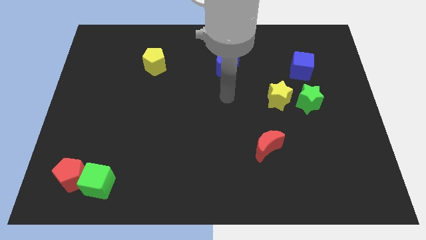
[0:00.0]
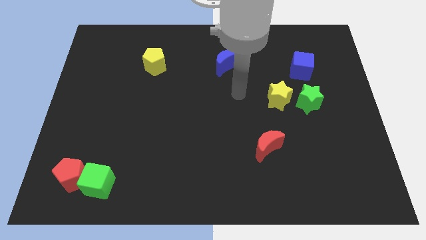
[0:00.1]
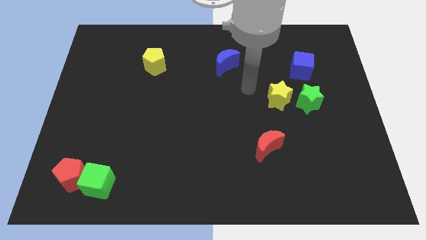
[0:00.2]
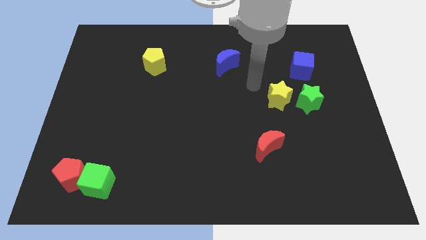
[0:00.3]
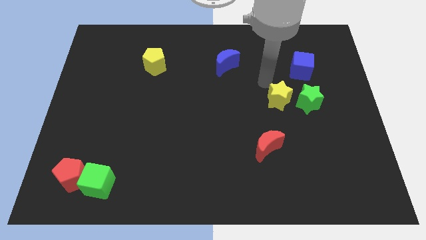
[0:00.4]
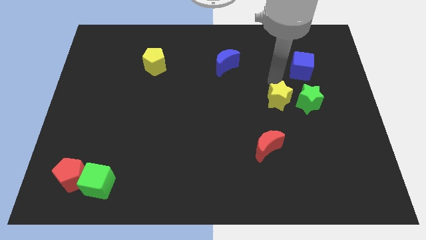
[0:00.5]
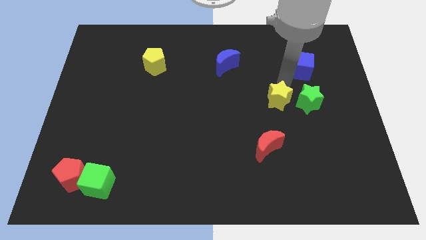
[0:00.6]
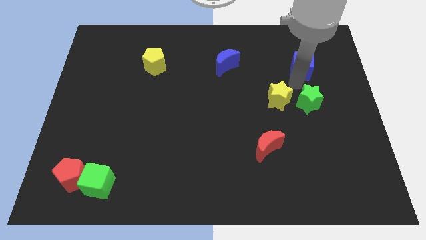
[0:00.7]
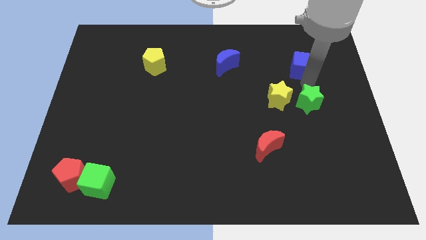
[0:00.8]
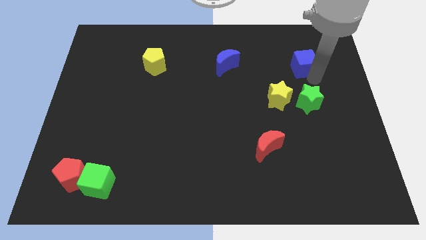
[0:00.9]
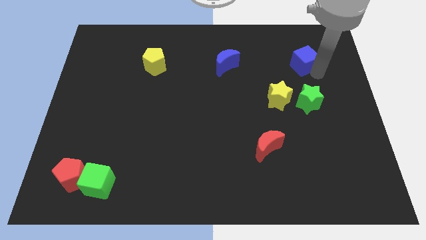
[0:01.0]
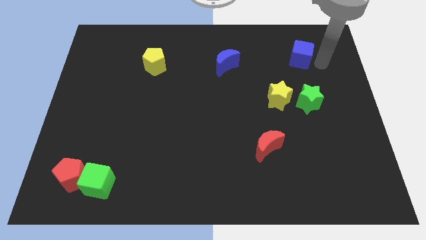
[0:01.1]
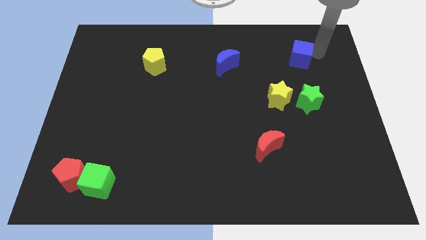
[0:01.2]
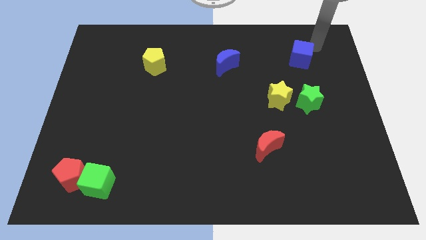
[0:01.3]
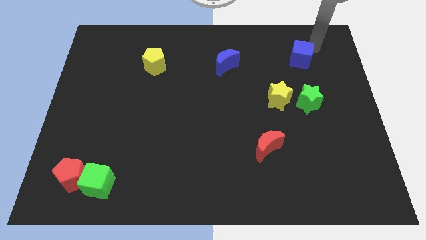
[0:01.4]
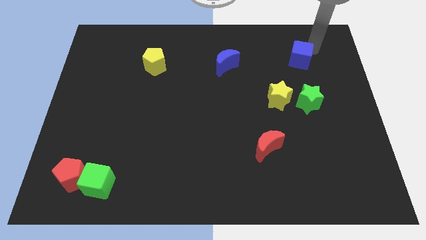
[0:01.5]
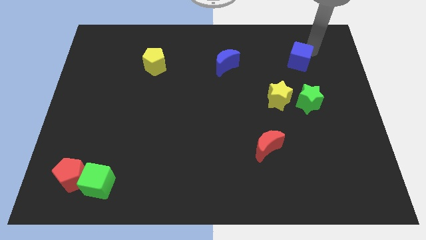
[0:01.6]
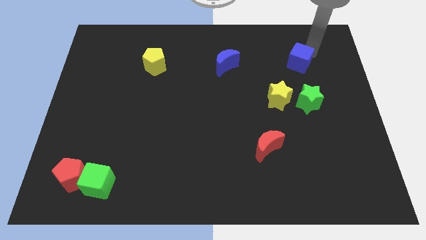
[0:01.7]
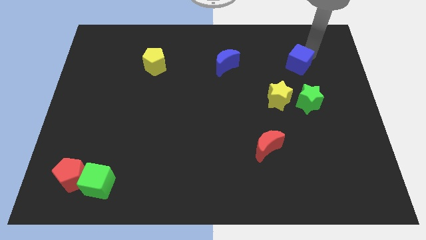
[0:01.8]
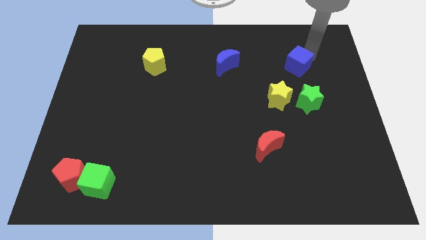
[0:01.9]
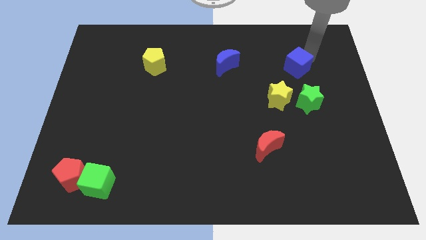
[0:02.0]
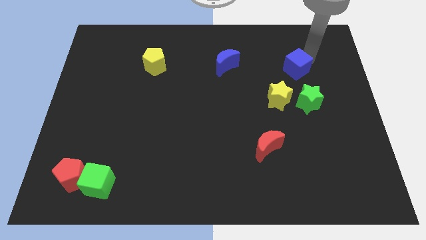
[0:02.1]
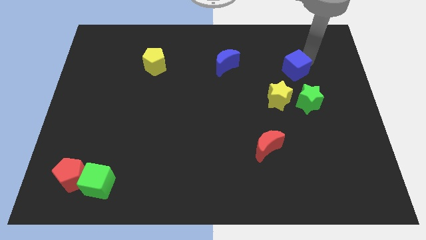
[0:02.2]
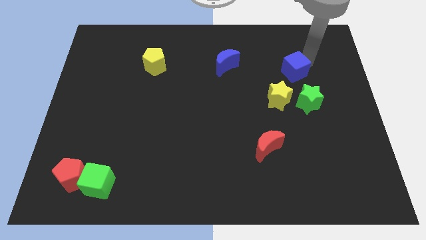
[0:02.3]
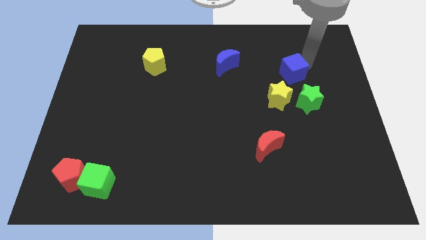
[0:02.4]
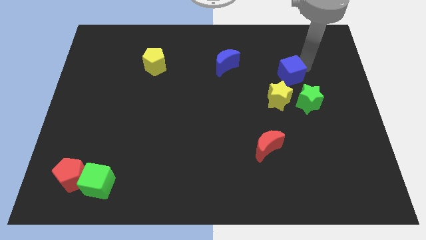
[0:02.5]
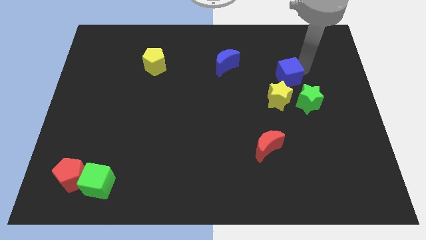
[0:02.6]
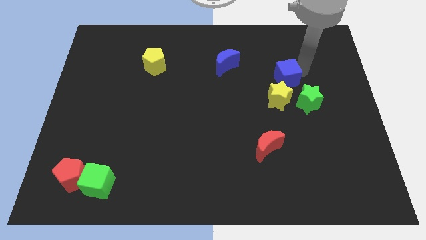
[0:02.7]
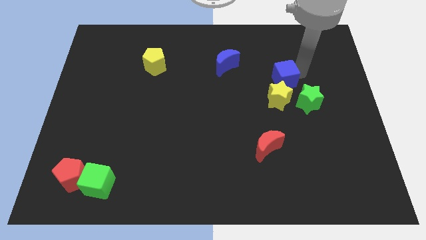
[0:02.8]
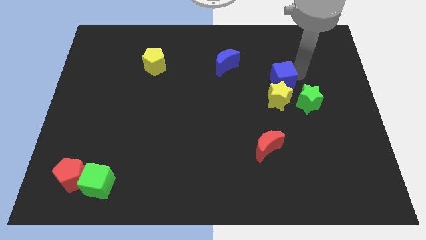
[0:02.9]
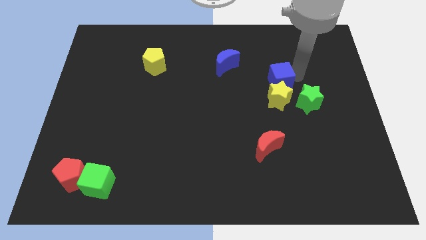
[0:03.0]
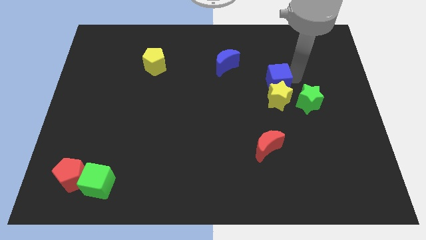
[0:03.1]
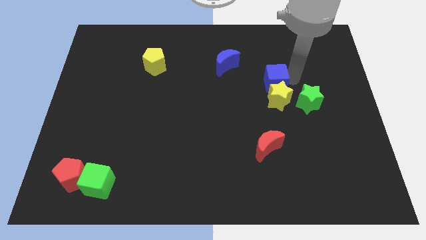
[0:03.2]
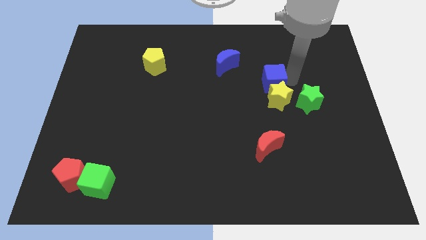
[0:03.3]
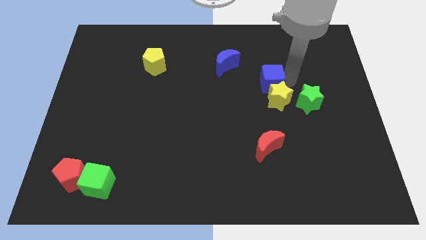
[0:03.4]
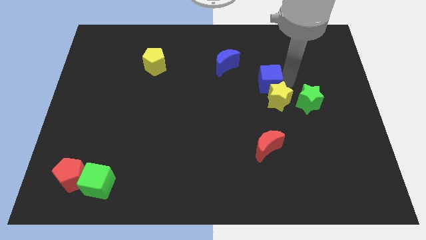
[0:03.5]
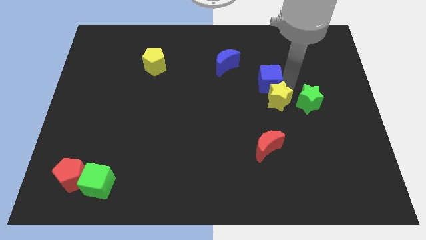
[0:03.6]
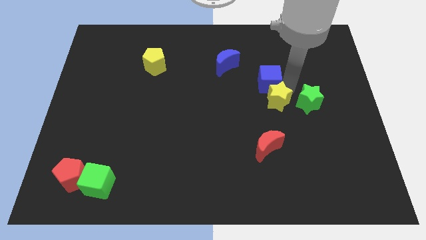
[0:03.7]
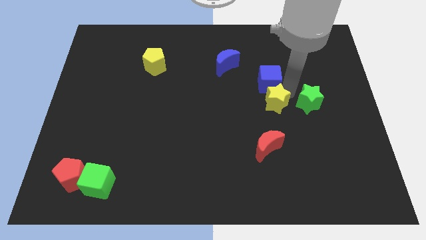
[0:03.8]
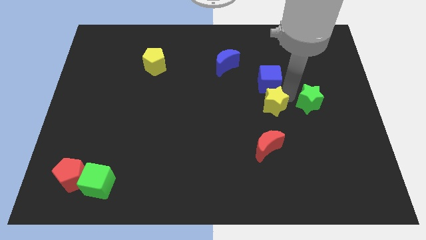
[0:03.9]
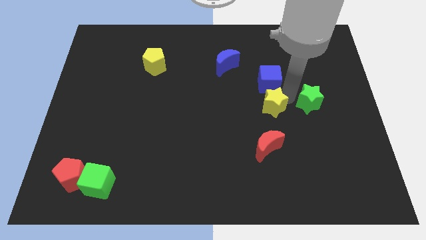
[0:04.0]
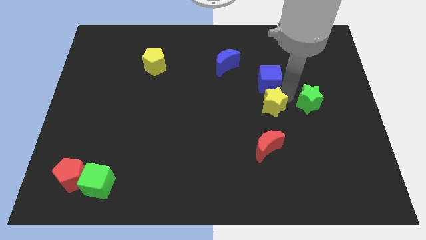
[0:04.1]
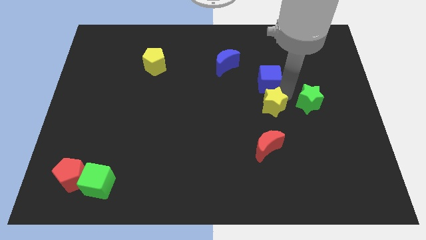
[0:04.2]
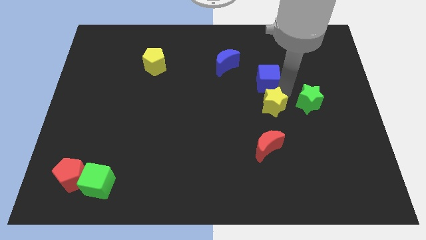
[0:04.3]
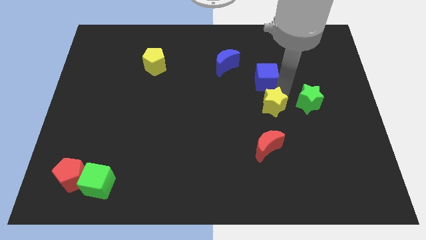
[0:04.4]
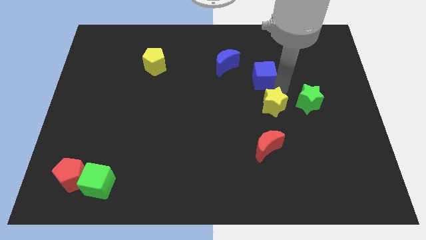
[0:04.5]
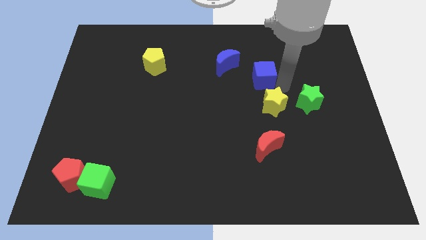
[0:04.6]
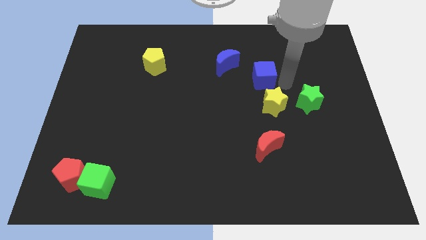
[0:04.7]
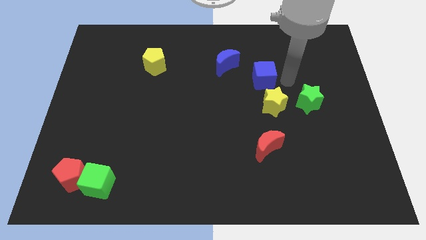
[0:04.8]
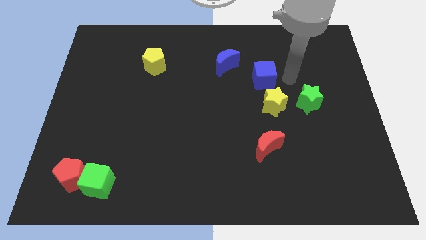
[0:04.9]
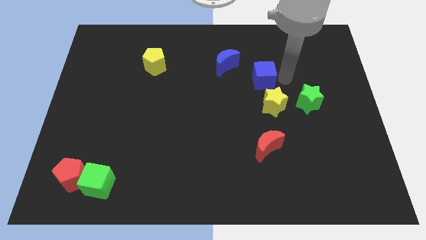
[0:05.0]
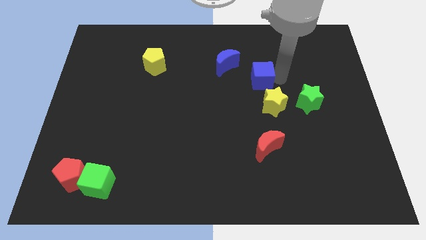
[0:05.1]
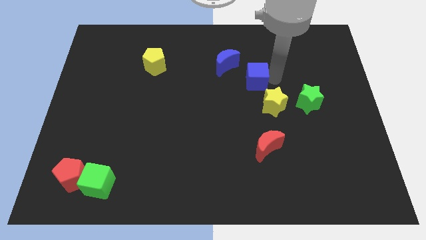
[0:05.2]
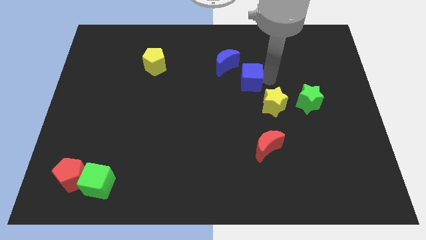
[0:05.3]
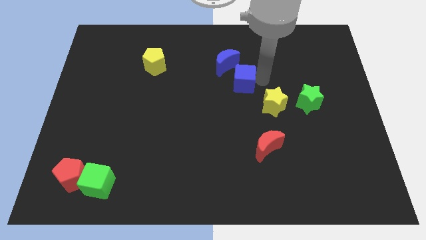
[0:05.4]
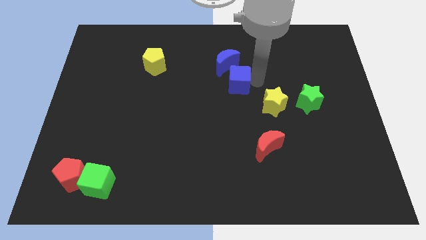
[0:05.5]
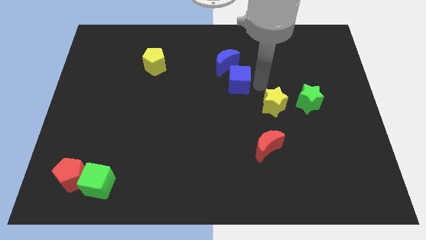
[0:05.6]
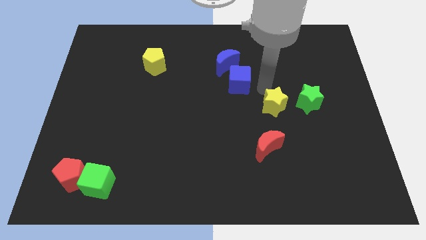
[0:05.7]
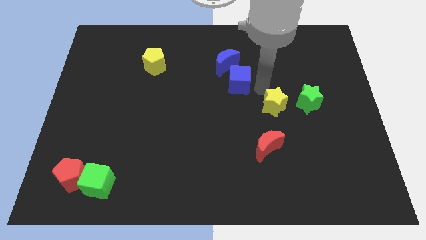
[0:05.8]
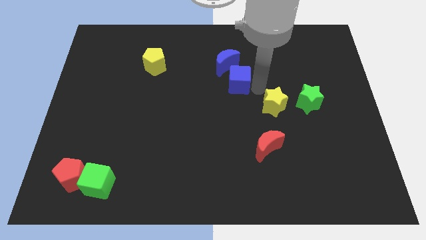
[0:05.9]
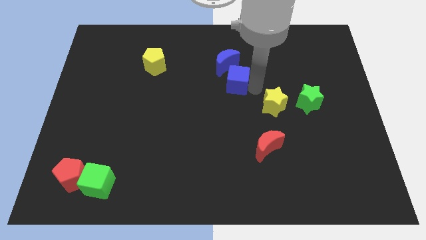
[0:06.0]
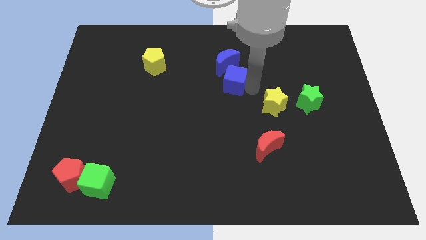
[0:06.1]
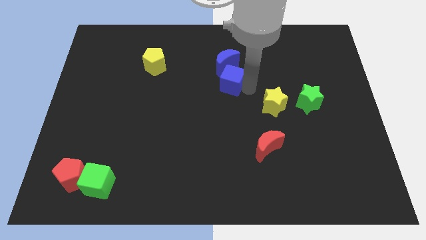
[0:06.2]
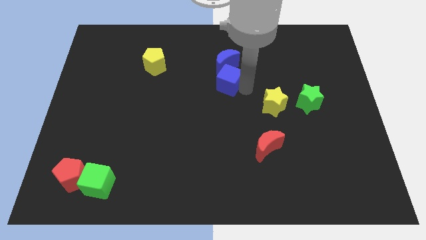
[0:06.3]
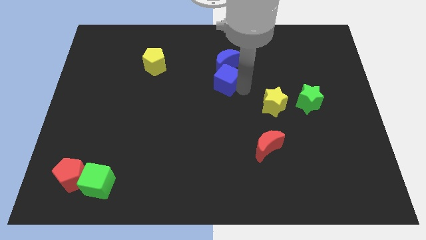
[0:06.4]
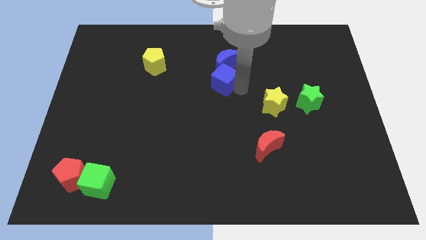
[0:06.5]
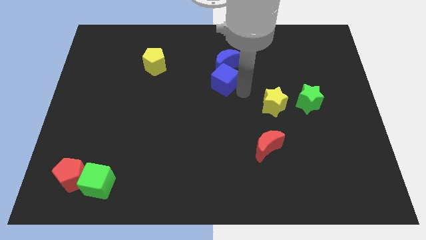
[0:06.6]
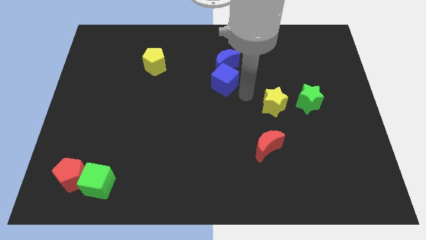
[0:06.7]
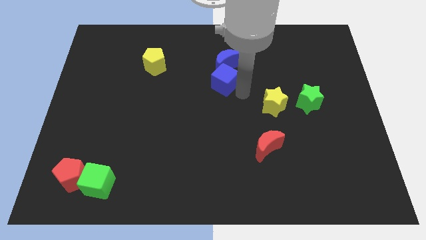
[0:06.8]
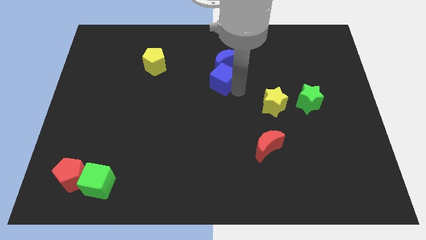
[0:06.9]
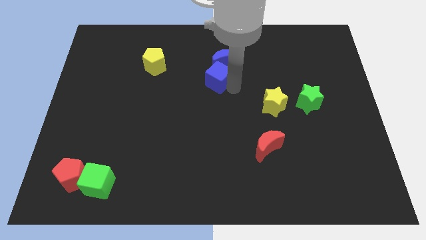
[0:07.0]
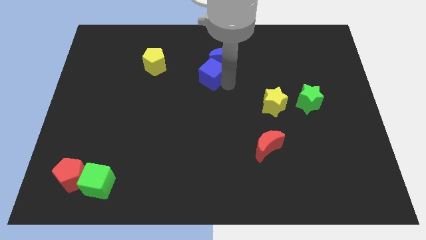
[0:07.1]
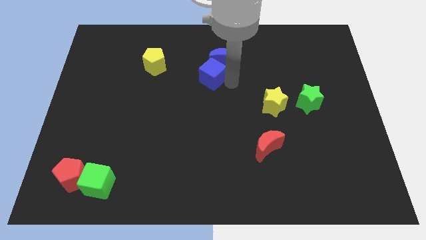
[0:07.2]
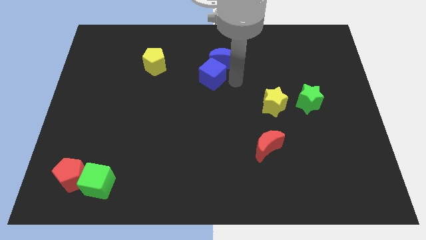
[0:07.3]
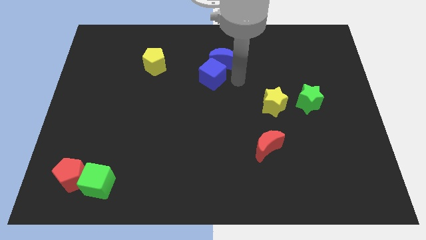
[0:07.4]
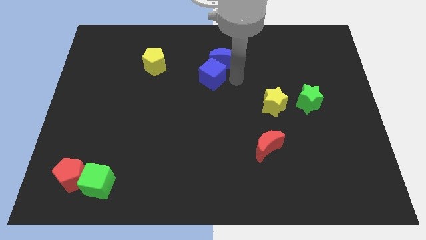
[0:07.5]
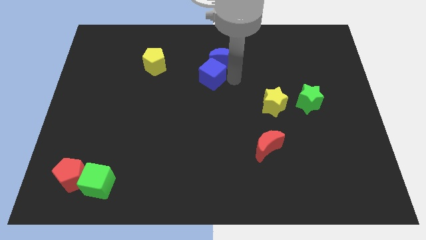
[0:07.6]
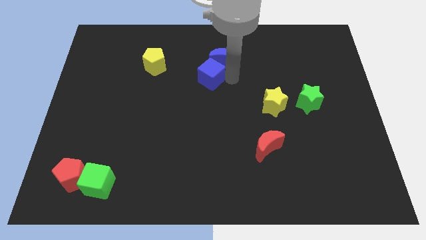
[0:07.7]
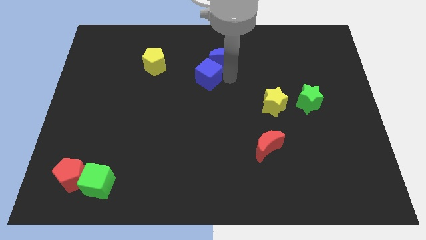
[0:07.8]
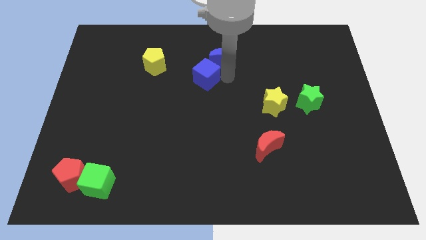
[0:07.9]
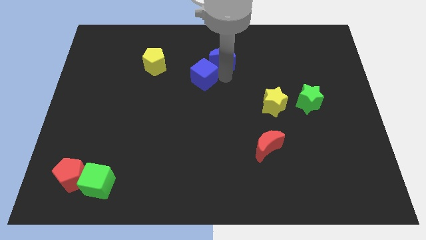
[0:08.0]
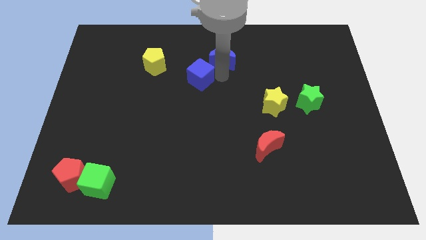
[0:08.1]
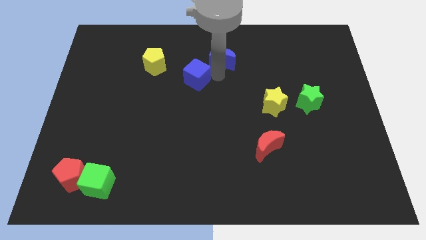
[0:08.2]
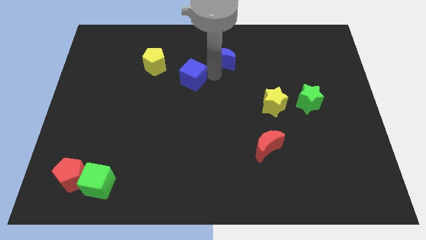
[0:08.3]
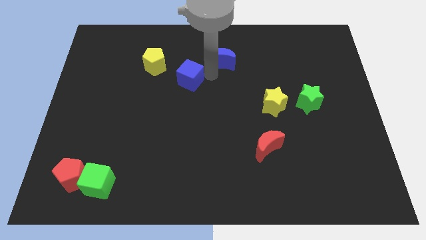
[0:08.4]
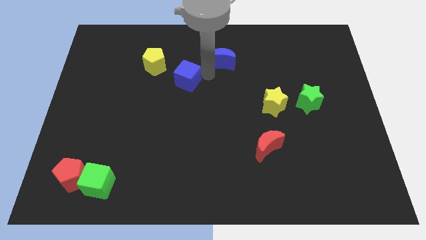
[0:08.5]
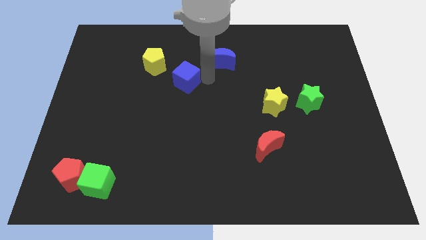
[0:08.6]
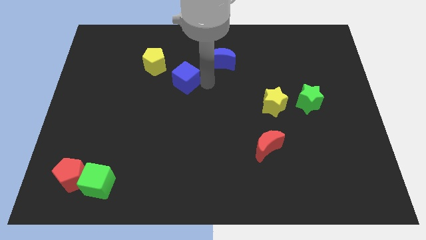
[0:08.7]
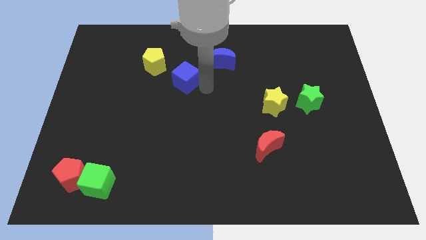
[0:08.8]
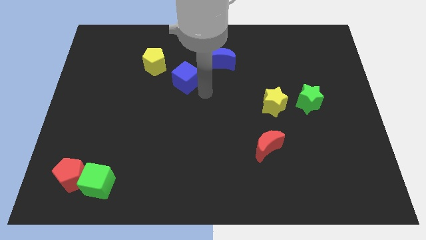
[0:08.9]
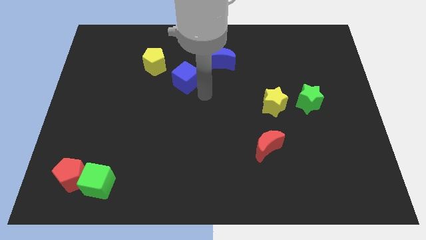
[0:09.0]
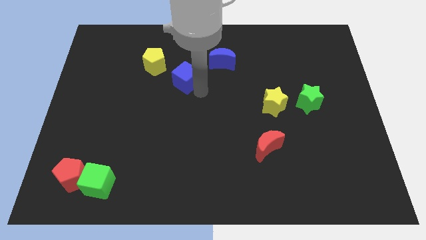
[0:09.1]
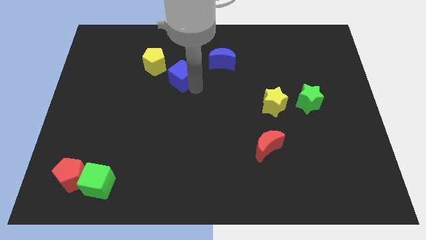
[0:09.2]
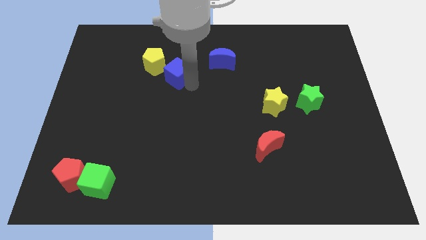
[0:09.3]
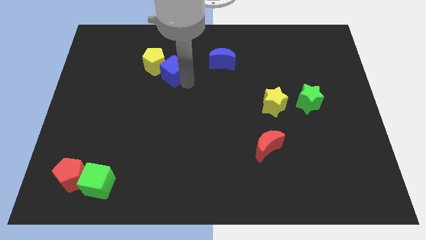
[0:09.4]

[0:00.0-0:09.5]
push the blue cube next to the yellow pentagon
